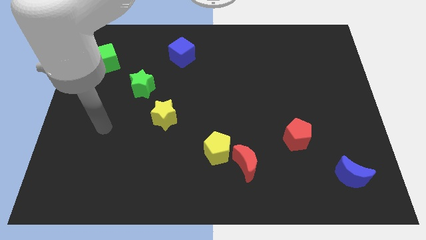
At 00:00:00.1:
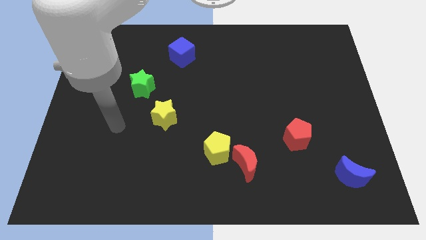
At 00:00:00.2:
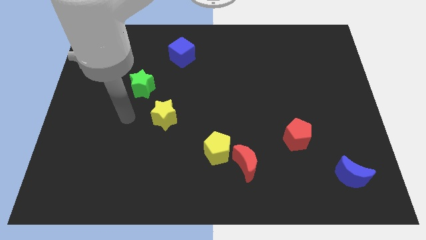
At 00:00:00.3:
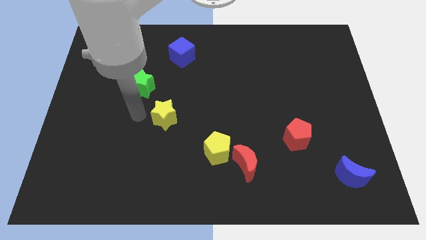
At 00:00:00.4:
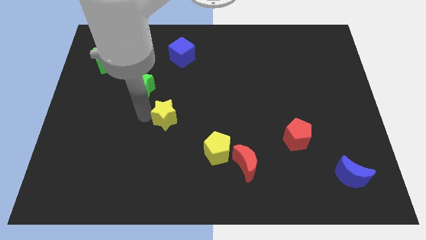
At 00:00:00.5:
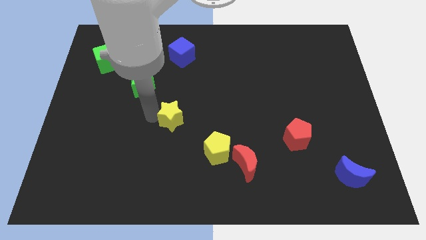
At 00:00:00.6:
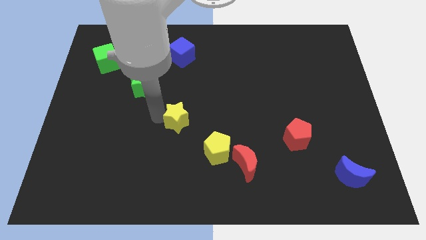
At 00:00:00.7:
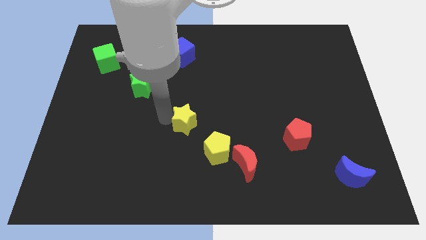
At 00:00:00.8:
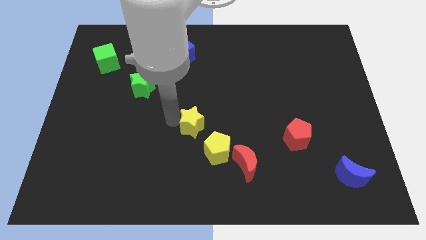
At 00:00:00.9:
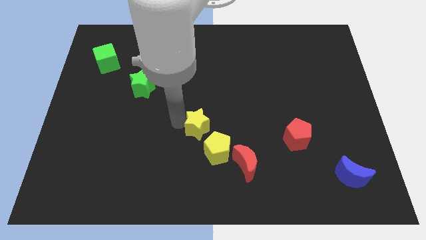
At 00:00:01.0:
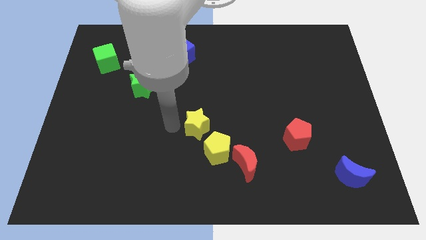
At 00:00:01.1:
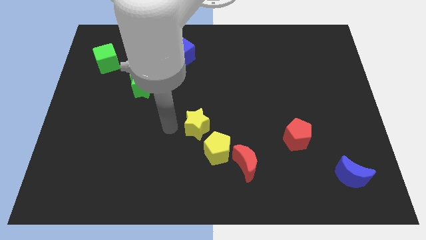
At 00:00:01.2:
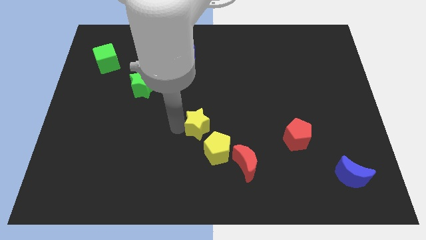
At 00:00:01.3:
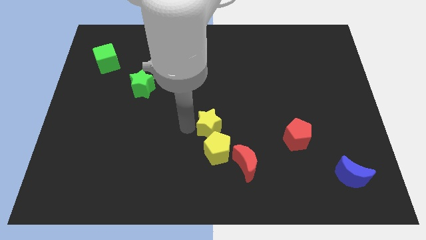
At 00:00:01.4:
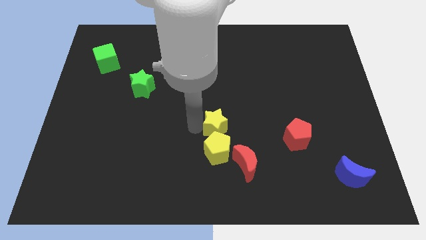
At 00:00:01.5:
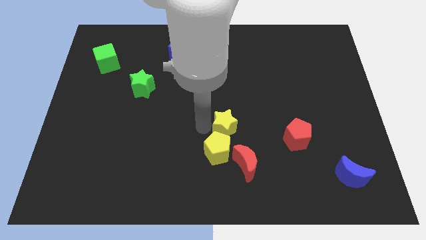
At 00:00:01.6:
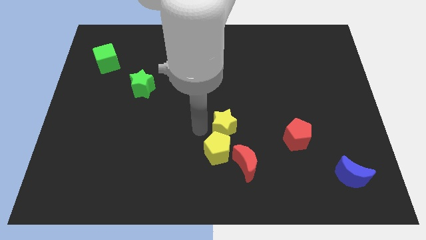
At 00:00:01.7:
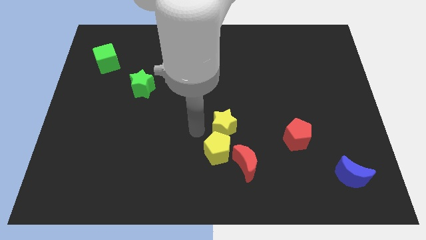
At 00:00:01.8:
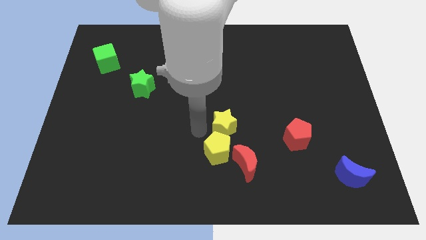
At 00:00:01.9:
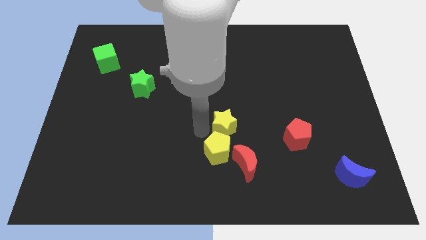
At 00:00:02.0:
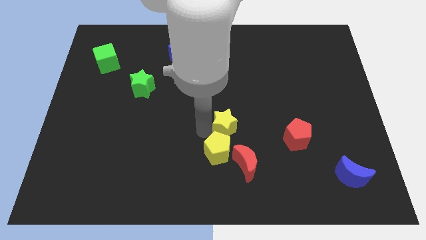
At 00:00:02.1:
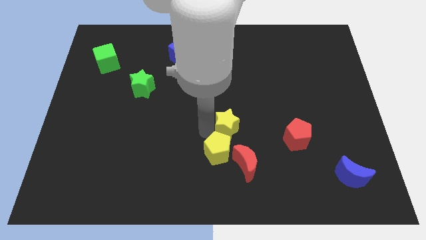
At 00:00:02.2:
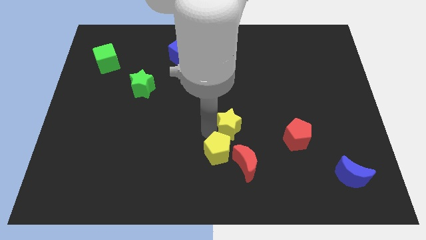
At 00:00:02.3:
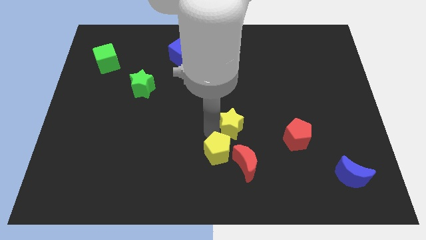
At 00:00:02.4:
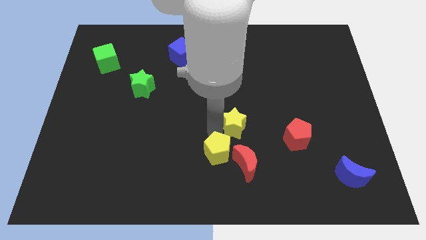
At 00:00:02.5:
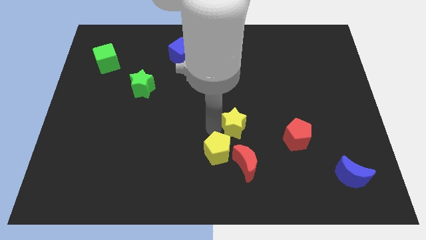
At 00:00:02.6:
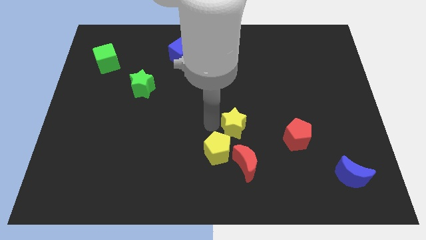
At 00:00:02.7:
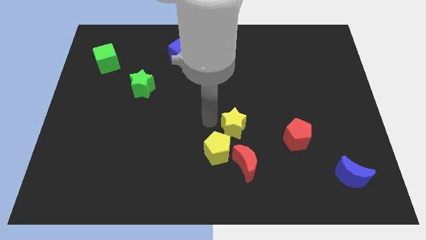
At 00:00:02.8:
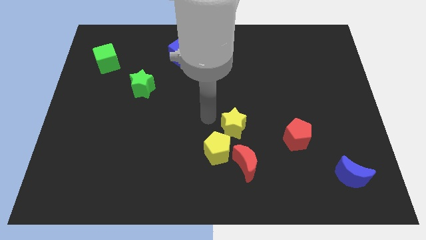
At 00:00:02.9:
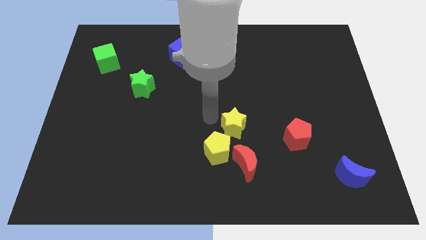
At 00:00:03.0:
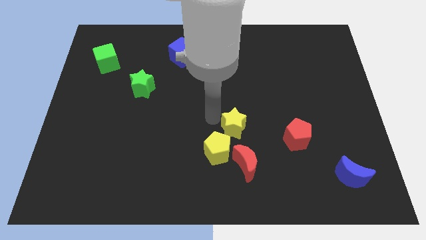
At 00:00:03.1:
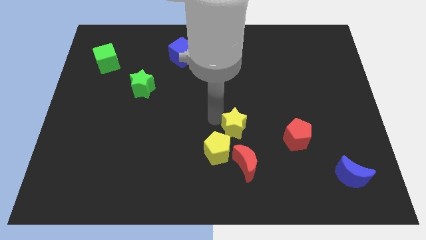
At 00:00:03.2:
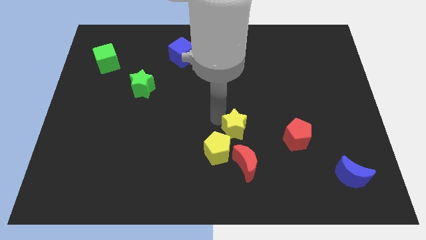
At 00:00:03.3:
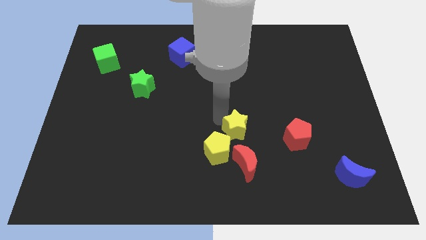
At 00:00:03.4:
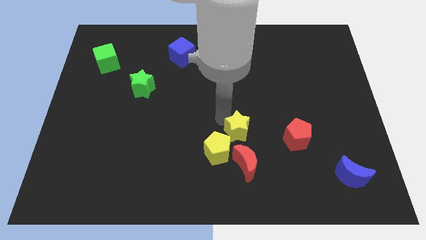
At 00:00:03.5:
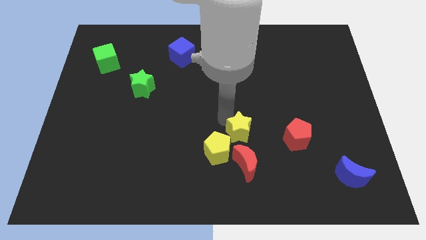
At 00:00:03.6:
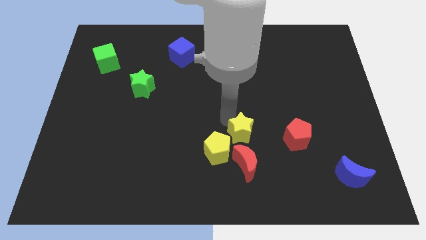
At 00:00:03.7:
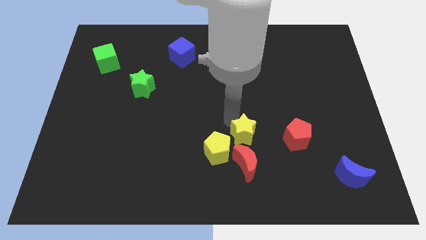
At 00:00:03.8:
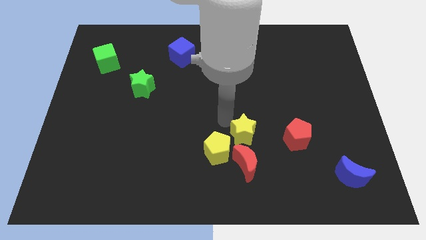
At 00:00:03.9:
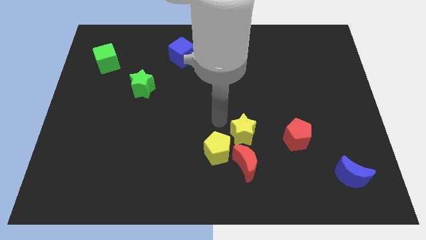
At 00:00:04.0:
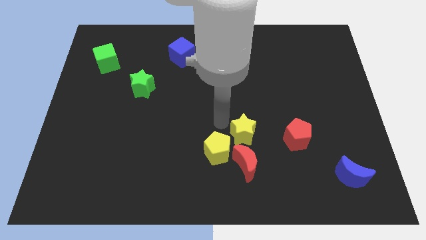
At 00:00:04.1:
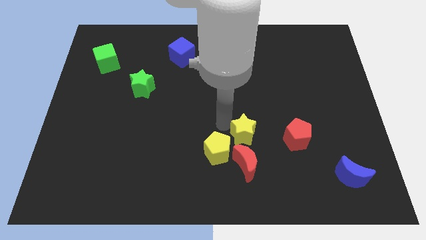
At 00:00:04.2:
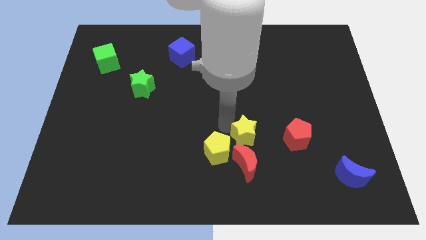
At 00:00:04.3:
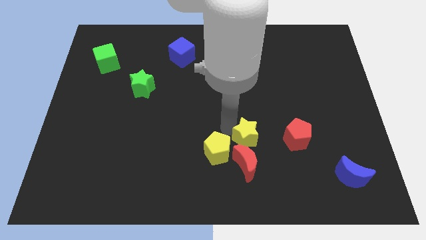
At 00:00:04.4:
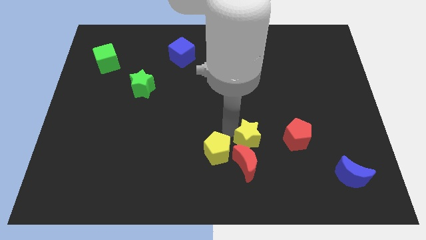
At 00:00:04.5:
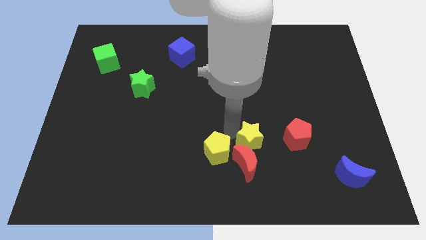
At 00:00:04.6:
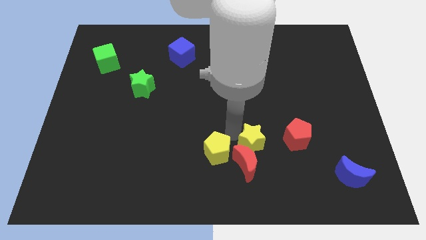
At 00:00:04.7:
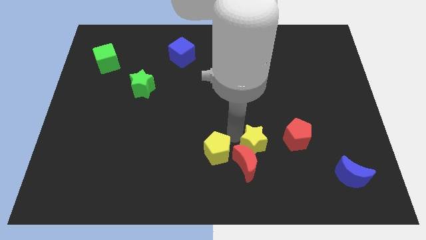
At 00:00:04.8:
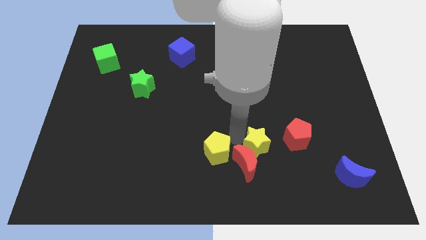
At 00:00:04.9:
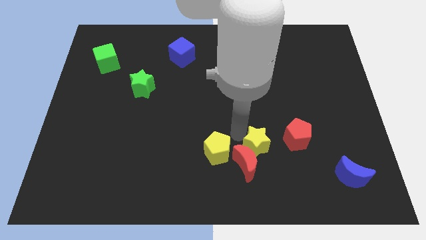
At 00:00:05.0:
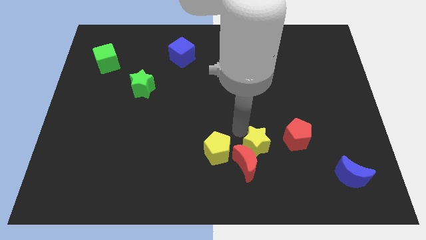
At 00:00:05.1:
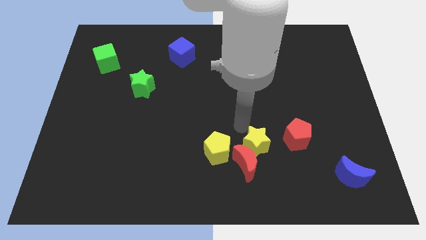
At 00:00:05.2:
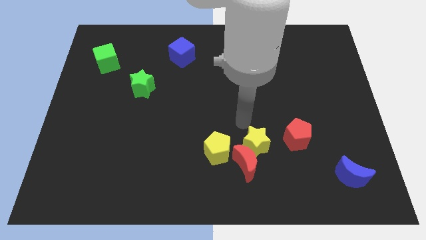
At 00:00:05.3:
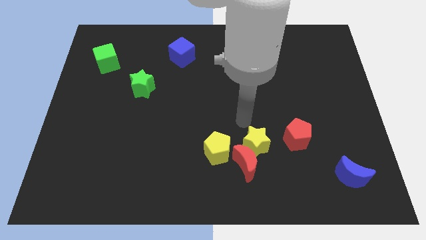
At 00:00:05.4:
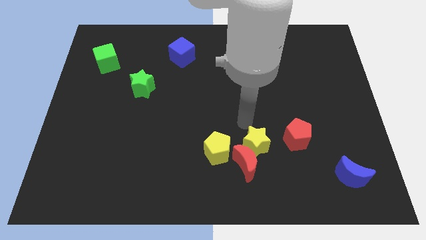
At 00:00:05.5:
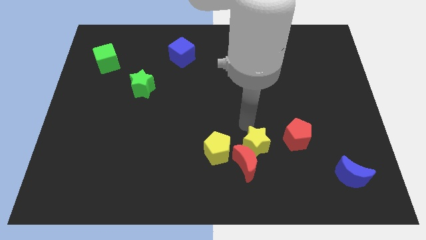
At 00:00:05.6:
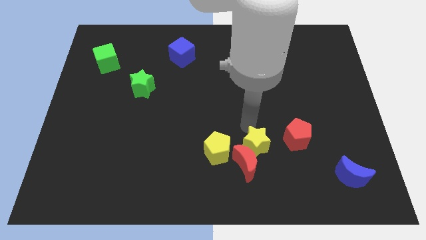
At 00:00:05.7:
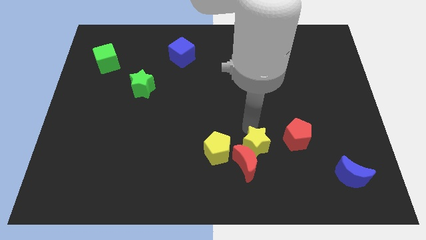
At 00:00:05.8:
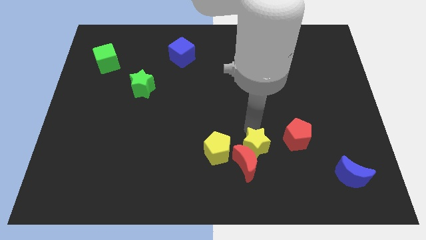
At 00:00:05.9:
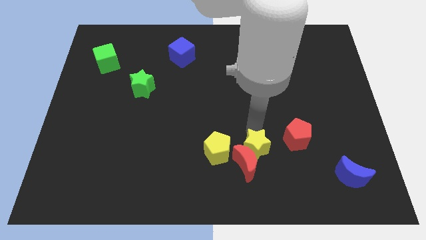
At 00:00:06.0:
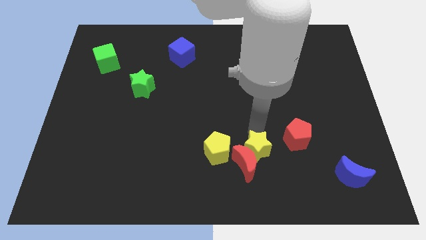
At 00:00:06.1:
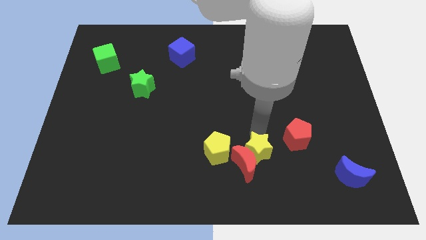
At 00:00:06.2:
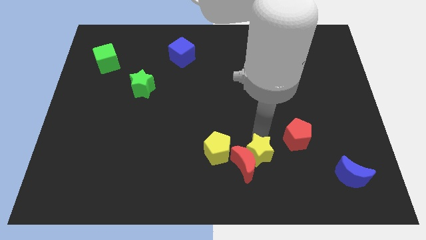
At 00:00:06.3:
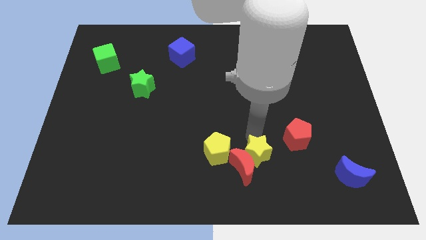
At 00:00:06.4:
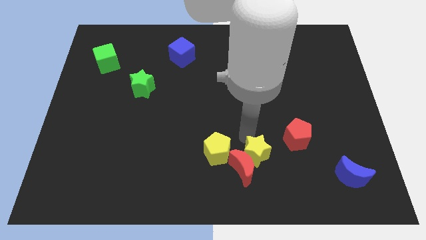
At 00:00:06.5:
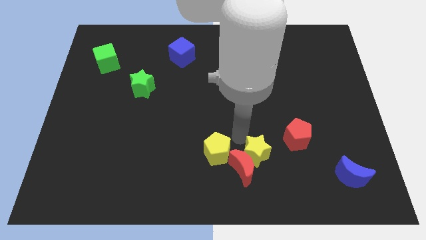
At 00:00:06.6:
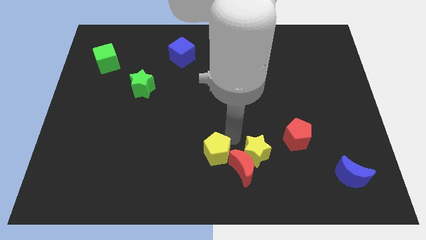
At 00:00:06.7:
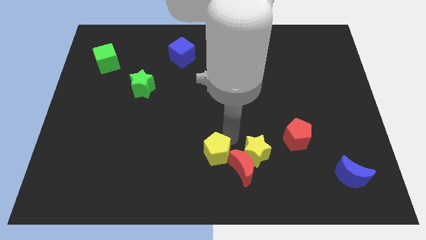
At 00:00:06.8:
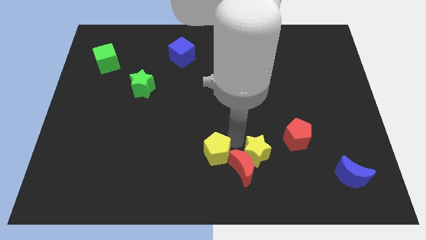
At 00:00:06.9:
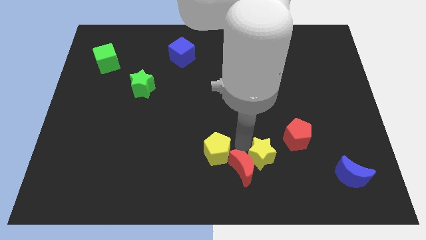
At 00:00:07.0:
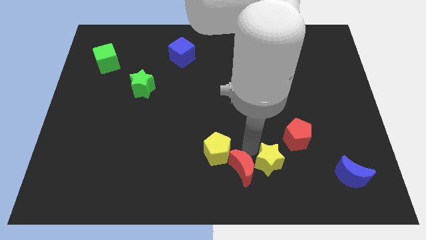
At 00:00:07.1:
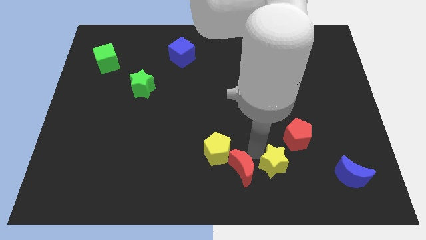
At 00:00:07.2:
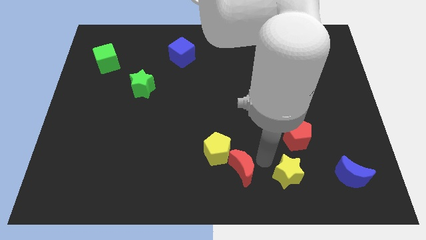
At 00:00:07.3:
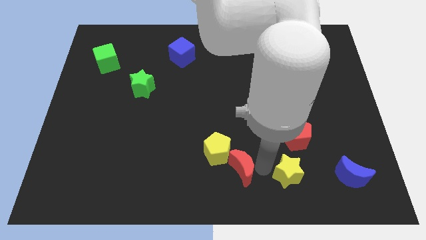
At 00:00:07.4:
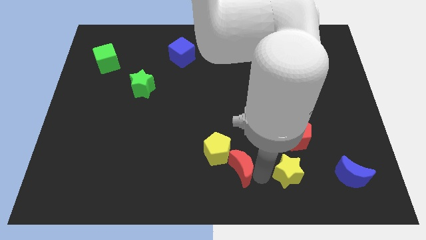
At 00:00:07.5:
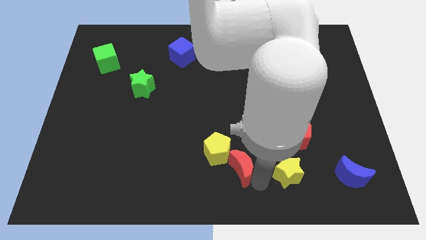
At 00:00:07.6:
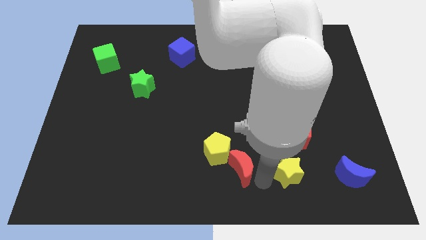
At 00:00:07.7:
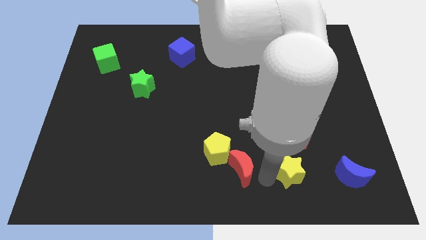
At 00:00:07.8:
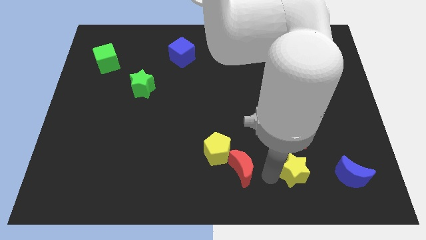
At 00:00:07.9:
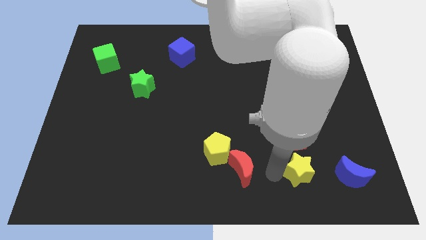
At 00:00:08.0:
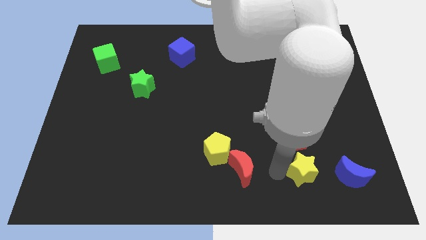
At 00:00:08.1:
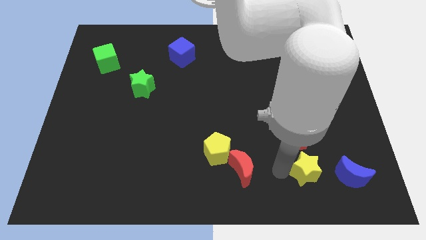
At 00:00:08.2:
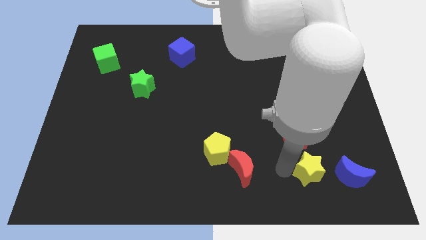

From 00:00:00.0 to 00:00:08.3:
put the yellow star to the bottom right of the red pentagon
